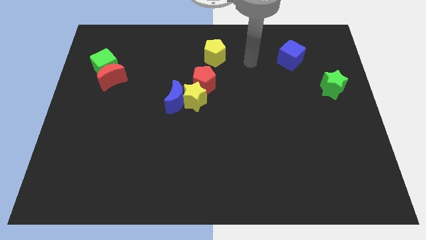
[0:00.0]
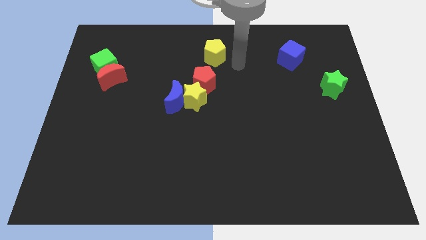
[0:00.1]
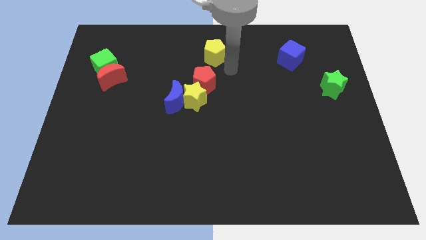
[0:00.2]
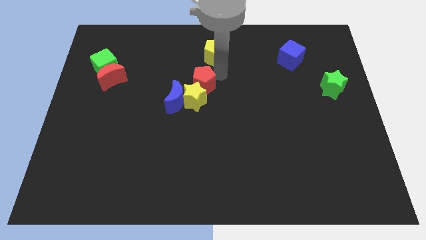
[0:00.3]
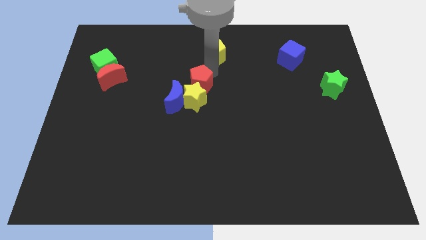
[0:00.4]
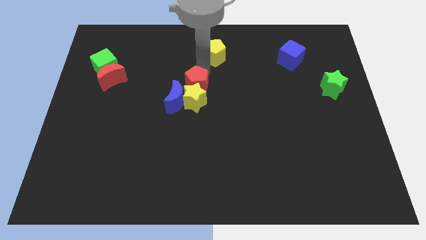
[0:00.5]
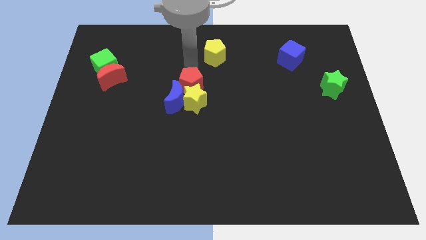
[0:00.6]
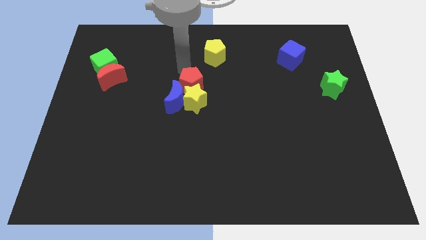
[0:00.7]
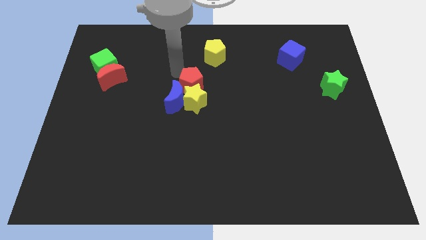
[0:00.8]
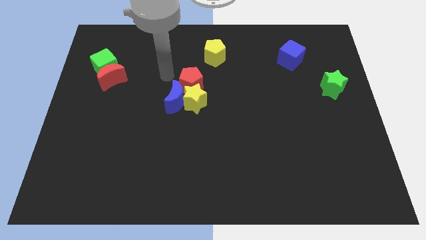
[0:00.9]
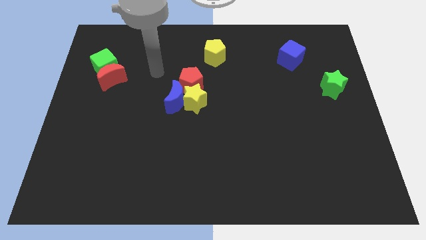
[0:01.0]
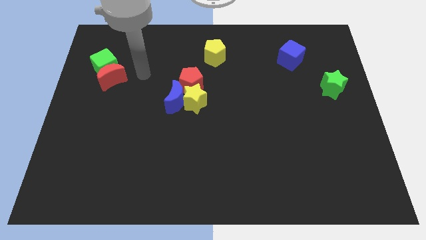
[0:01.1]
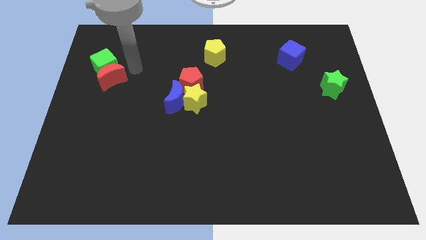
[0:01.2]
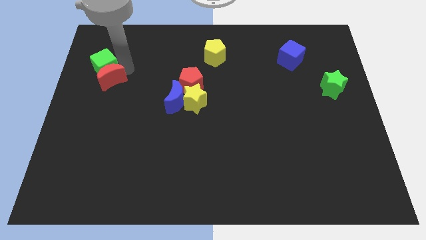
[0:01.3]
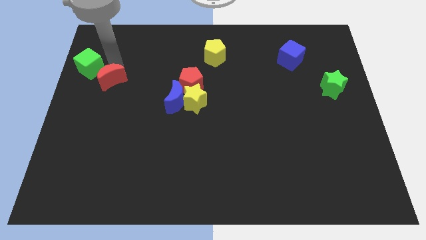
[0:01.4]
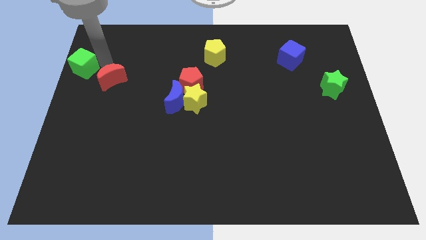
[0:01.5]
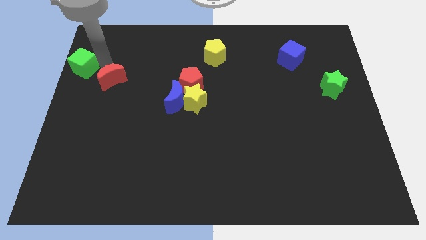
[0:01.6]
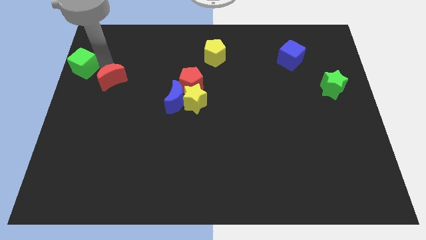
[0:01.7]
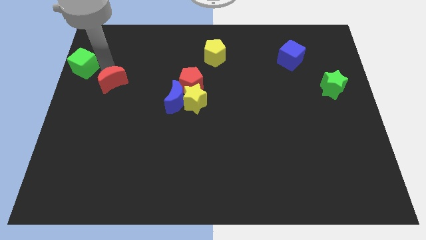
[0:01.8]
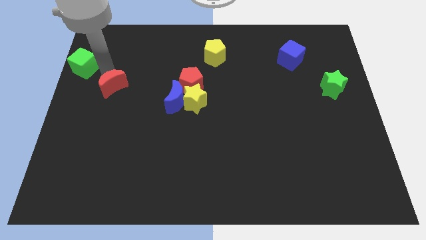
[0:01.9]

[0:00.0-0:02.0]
separate the red moon from the green cube

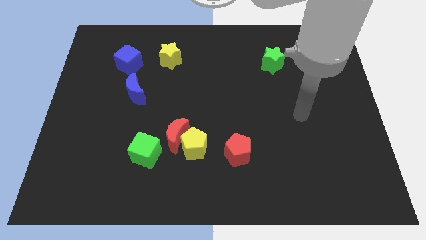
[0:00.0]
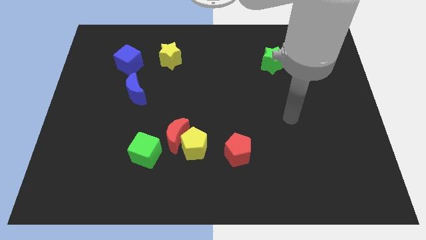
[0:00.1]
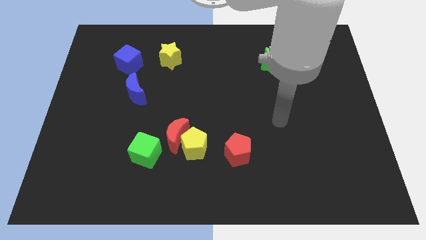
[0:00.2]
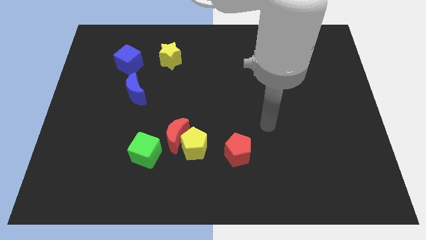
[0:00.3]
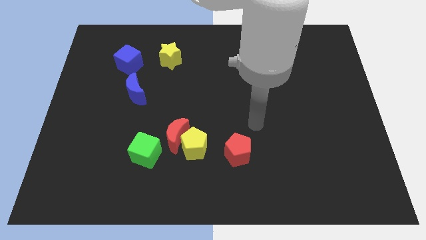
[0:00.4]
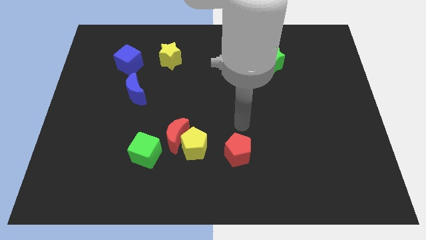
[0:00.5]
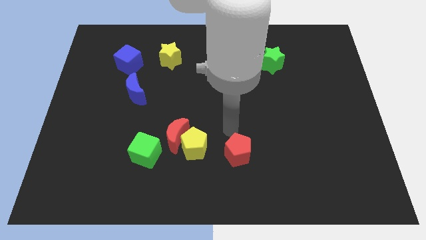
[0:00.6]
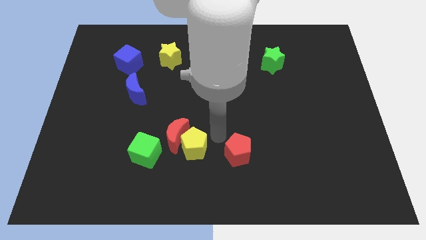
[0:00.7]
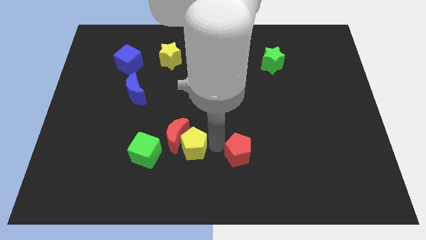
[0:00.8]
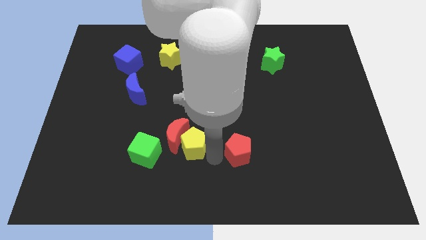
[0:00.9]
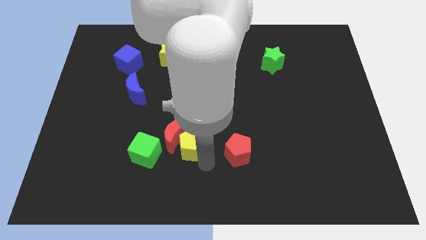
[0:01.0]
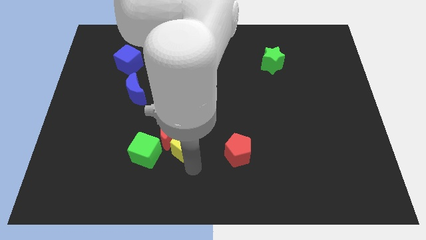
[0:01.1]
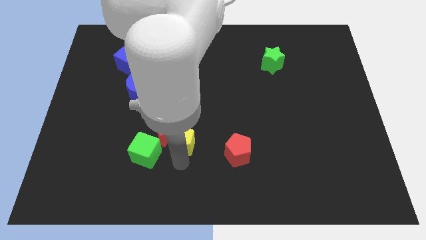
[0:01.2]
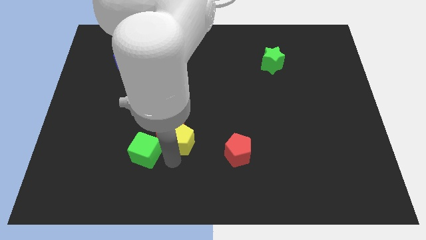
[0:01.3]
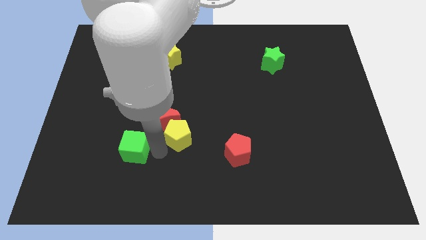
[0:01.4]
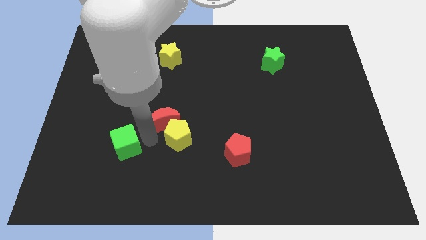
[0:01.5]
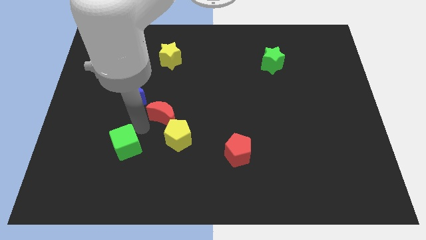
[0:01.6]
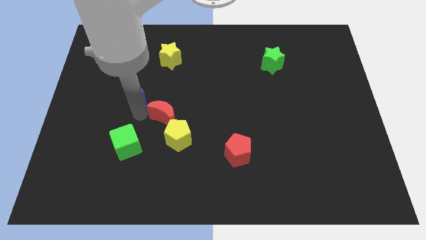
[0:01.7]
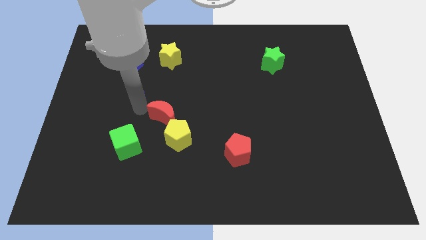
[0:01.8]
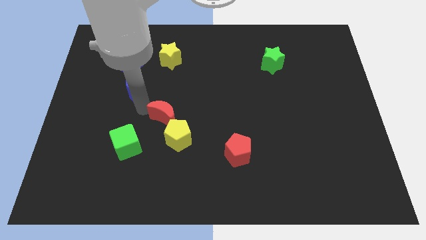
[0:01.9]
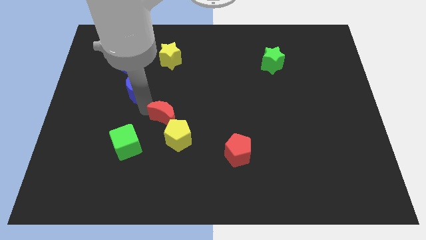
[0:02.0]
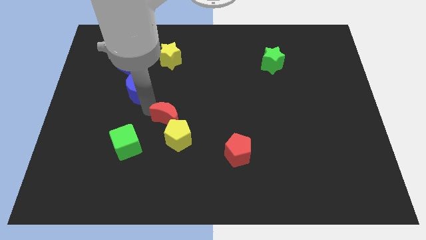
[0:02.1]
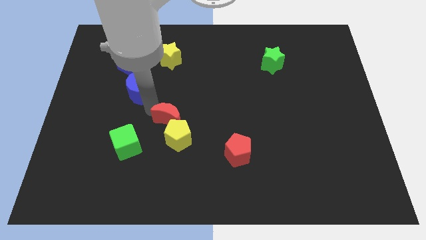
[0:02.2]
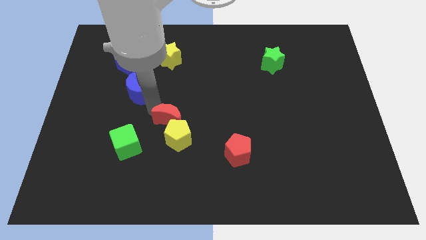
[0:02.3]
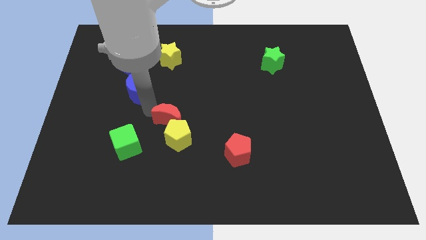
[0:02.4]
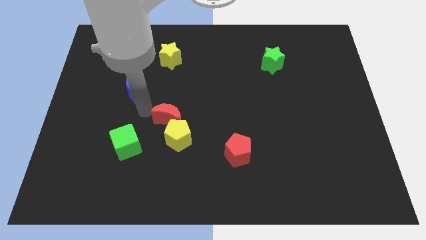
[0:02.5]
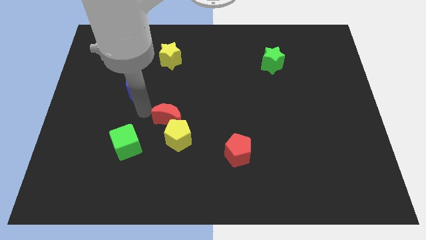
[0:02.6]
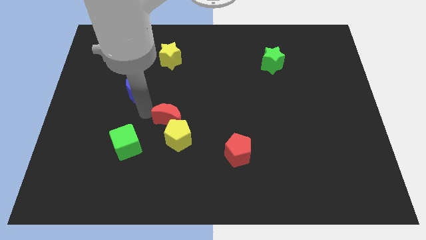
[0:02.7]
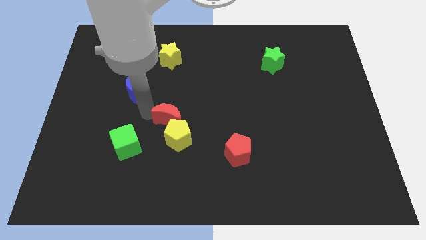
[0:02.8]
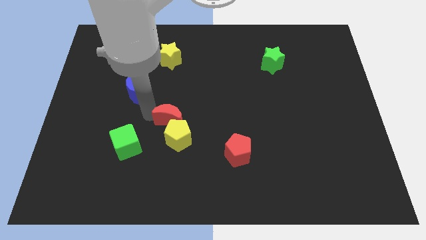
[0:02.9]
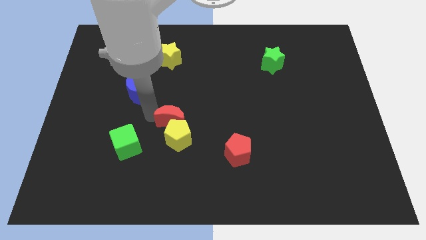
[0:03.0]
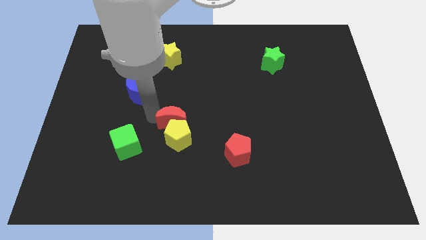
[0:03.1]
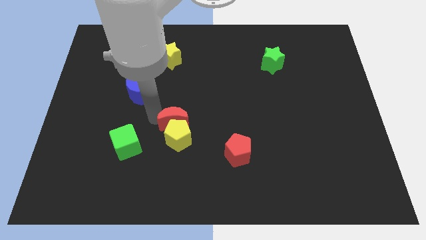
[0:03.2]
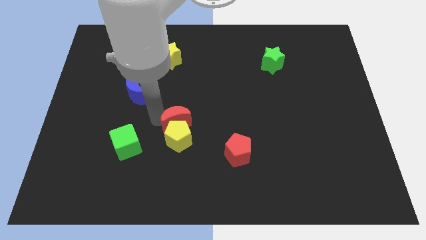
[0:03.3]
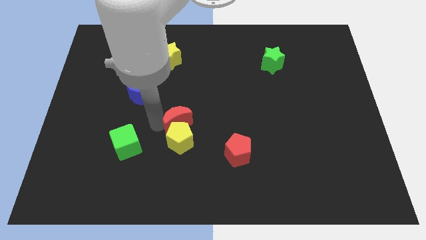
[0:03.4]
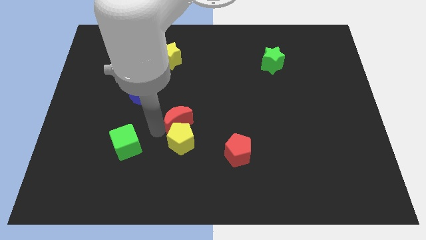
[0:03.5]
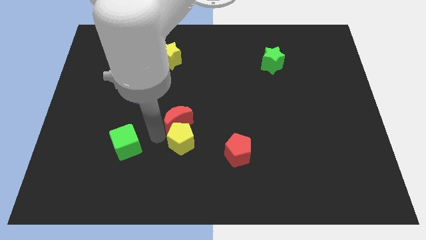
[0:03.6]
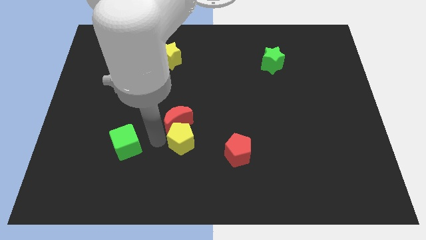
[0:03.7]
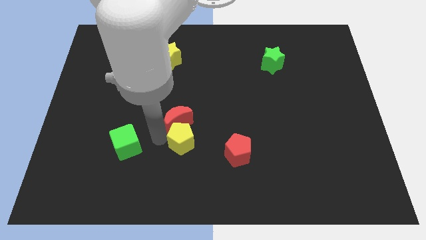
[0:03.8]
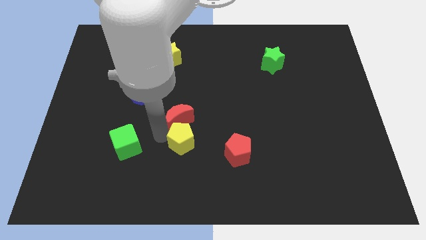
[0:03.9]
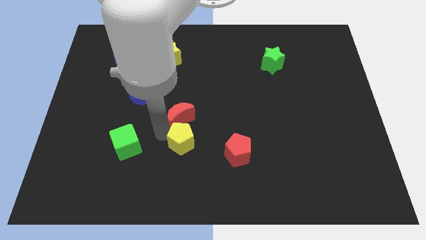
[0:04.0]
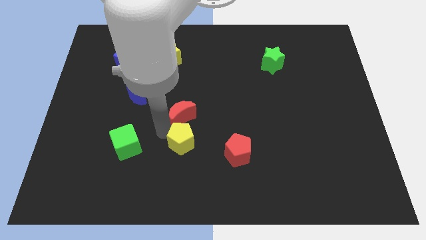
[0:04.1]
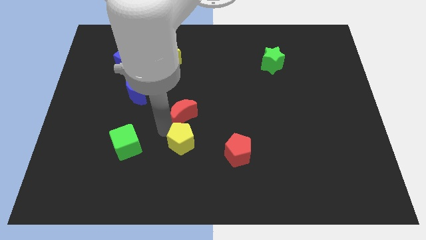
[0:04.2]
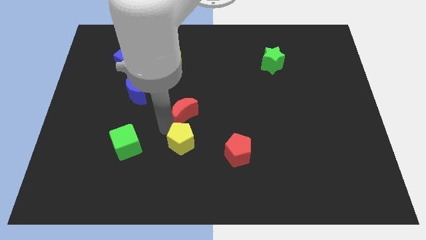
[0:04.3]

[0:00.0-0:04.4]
separate the red moon from the yellow pentagon and green cube

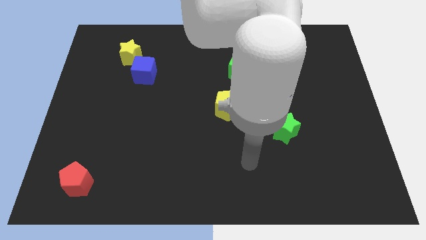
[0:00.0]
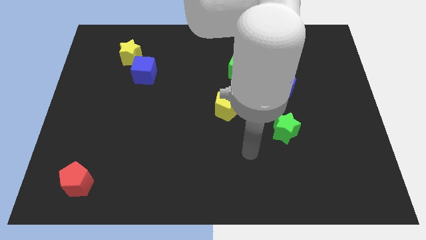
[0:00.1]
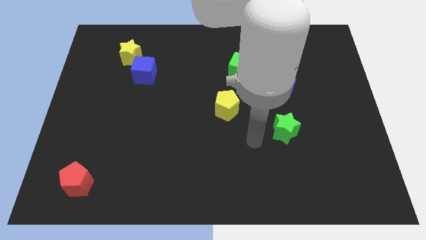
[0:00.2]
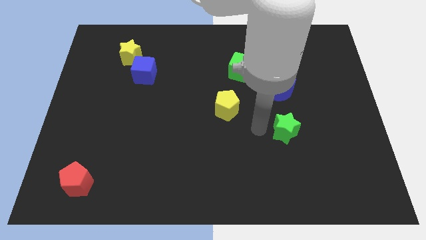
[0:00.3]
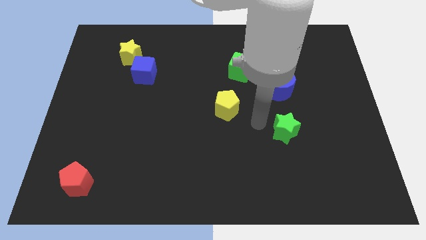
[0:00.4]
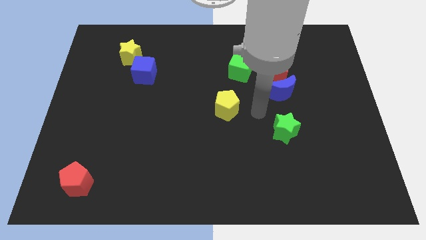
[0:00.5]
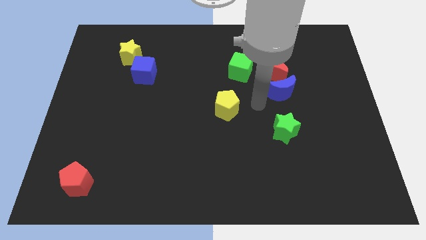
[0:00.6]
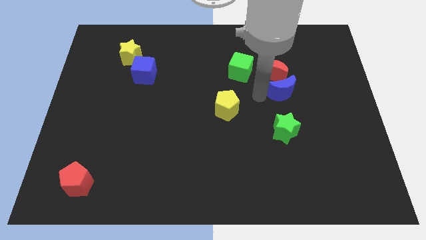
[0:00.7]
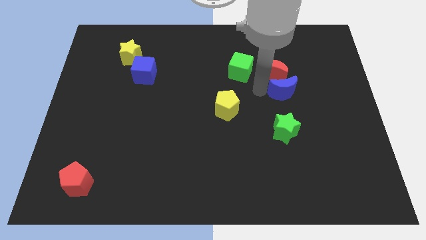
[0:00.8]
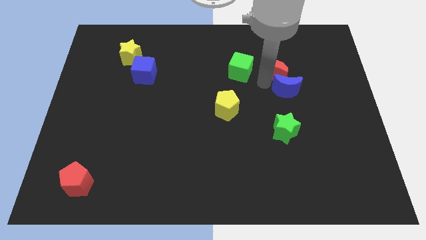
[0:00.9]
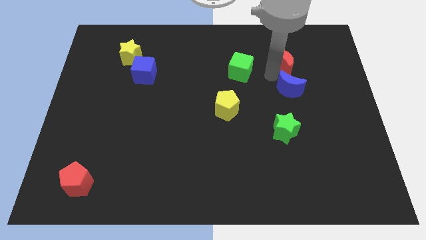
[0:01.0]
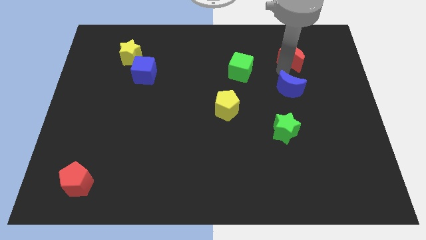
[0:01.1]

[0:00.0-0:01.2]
move the blue moon away from the red moon

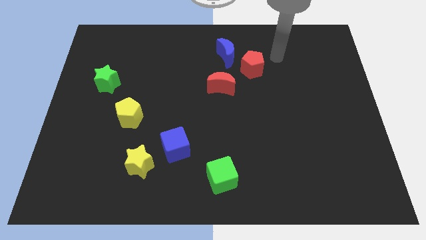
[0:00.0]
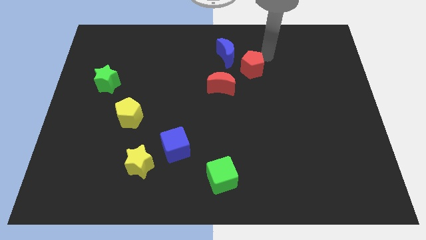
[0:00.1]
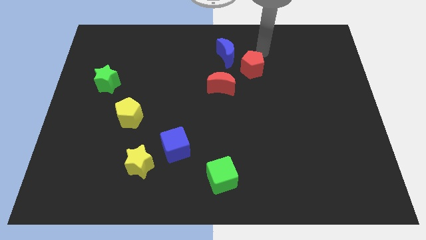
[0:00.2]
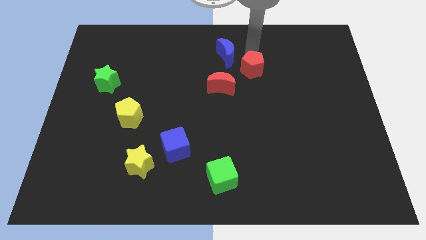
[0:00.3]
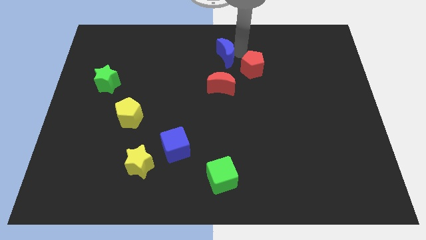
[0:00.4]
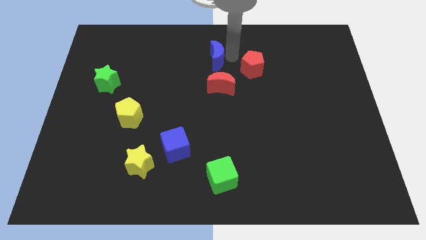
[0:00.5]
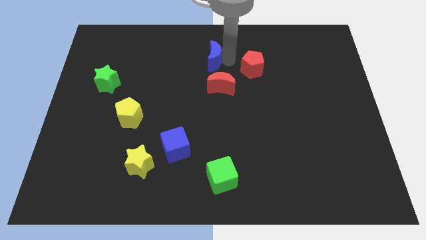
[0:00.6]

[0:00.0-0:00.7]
move the red pentagon away from the blue moon

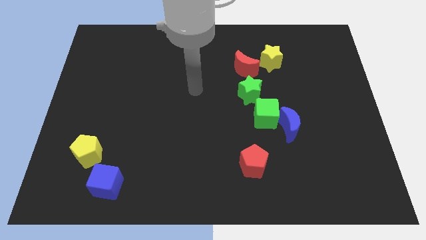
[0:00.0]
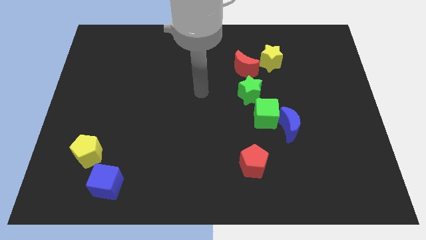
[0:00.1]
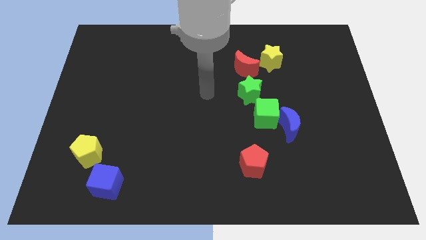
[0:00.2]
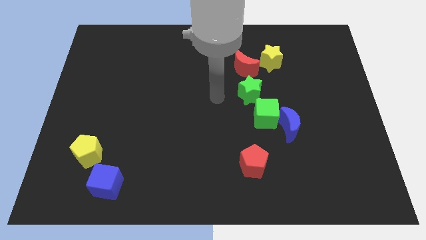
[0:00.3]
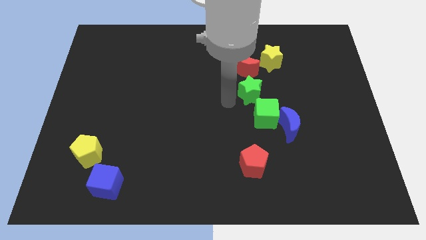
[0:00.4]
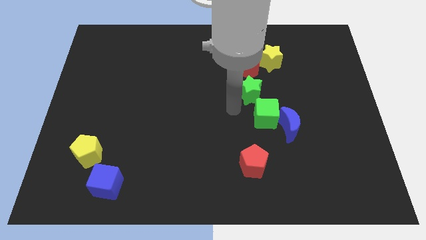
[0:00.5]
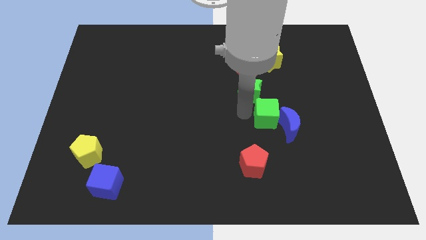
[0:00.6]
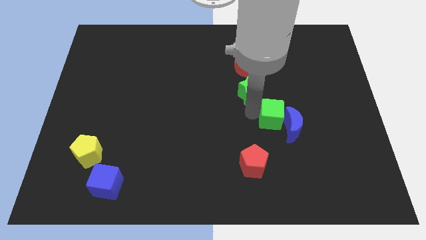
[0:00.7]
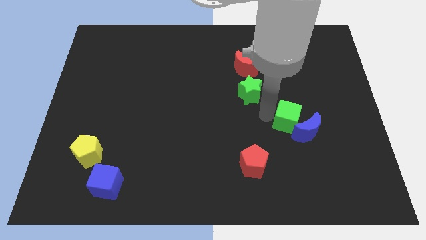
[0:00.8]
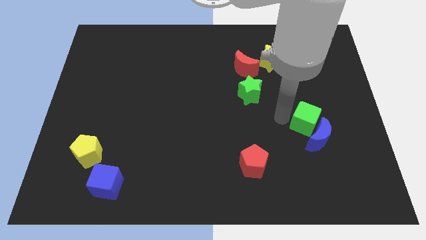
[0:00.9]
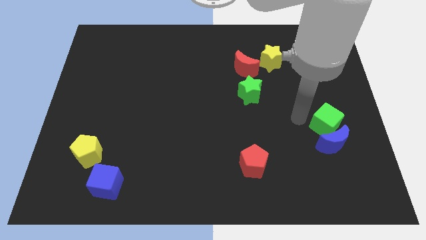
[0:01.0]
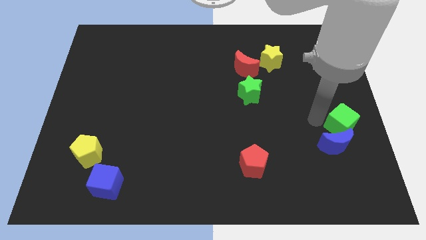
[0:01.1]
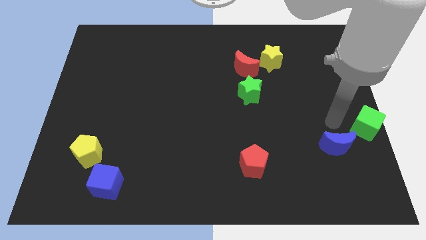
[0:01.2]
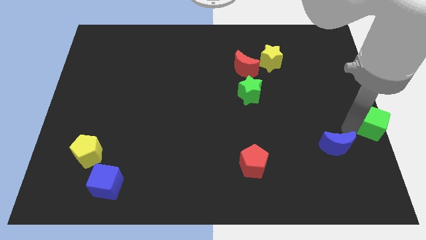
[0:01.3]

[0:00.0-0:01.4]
pull the blue moon apart from the green cube
